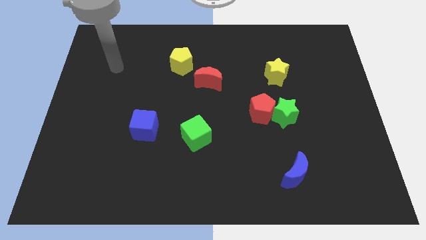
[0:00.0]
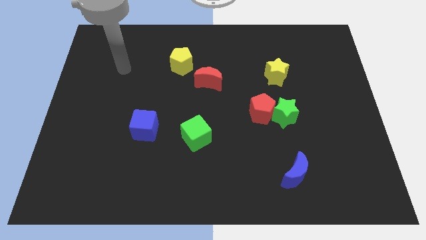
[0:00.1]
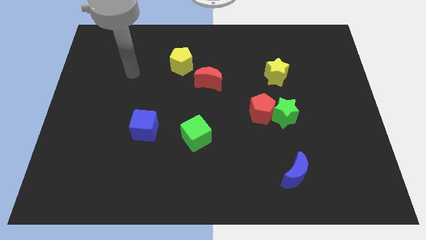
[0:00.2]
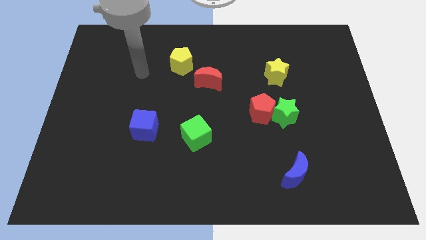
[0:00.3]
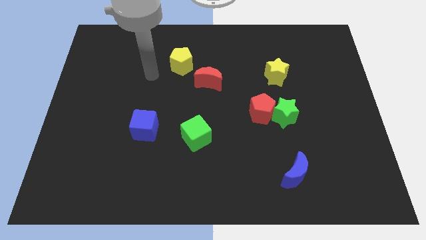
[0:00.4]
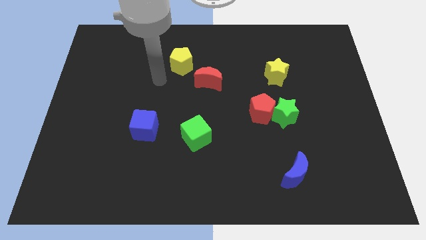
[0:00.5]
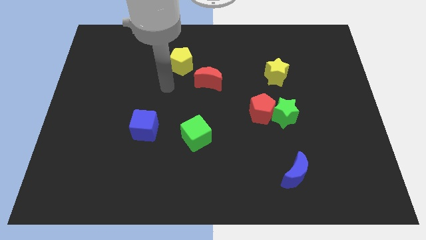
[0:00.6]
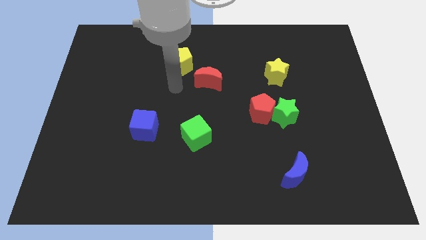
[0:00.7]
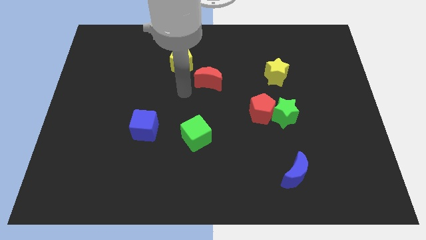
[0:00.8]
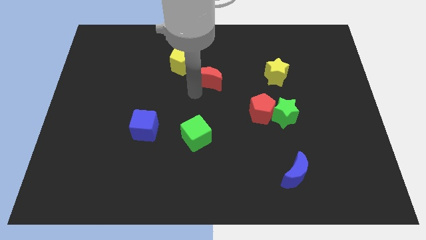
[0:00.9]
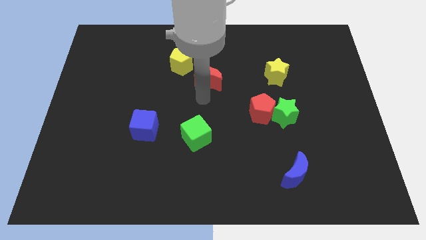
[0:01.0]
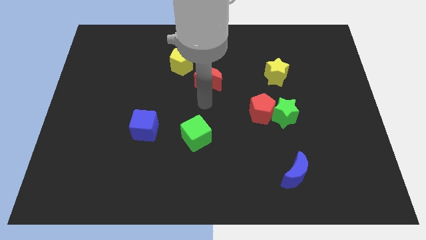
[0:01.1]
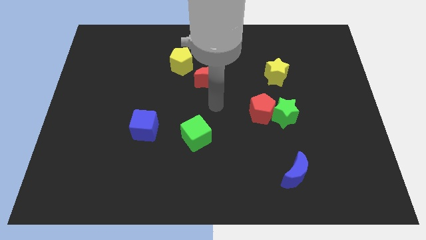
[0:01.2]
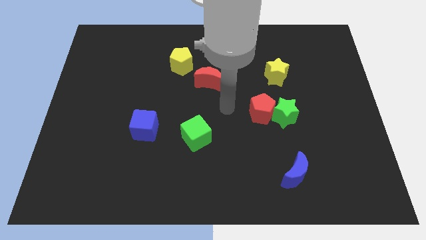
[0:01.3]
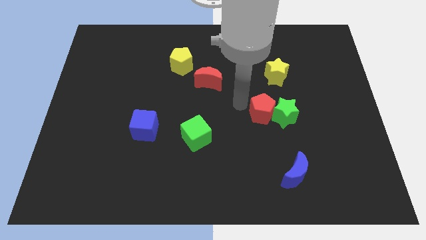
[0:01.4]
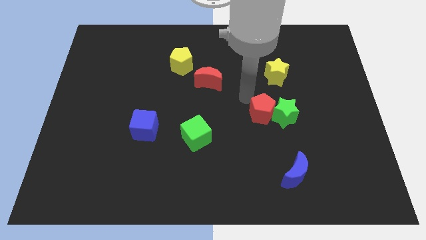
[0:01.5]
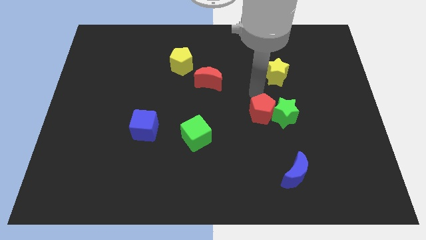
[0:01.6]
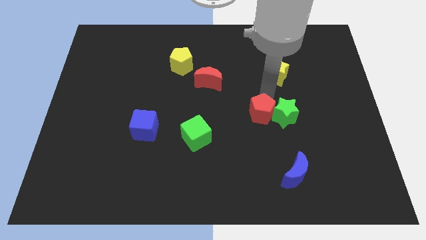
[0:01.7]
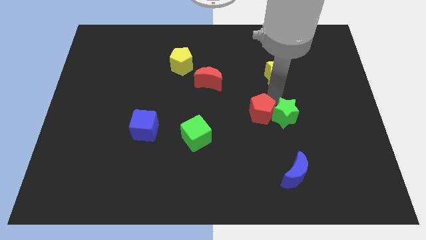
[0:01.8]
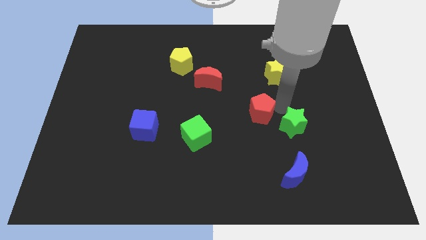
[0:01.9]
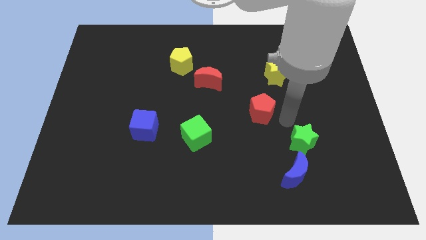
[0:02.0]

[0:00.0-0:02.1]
pull the red pentagon apart from the green star

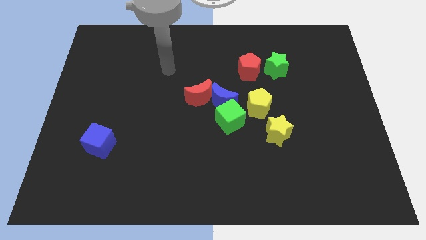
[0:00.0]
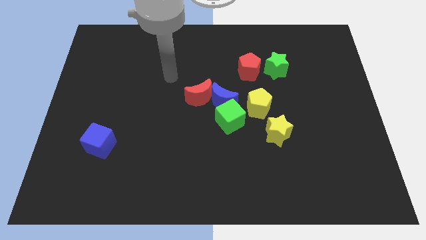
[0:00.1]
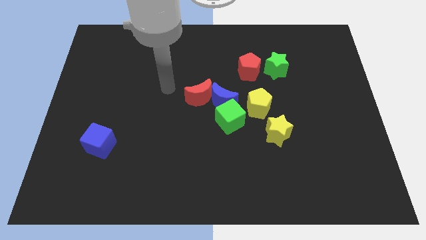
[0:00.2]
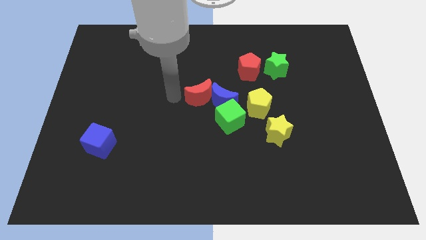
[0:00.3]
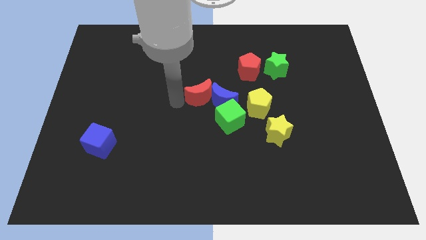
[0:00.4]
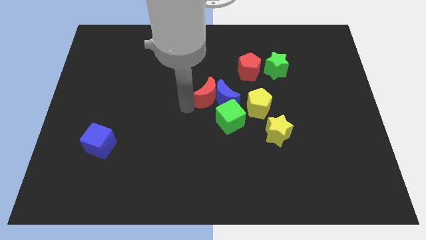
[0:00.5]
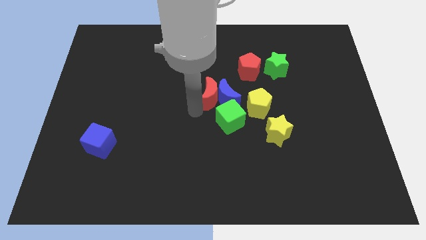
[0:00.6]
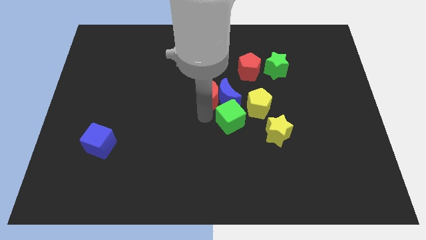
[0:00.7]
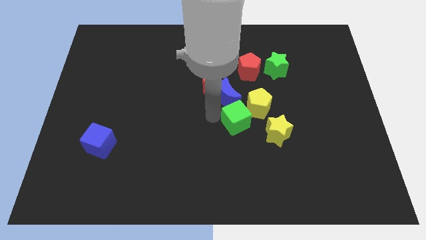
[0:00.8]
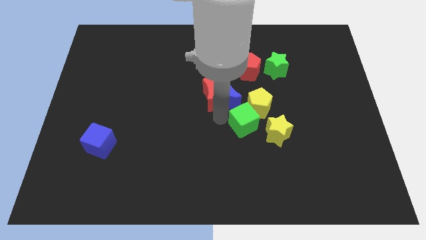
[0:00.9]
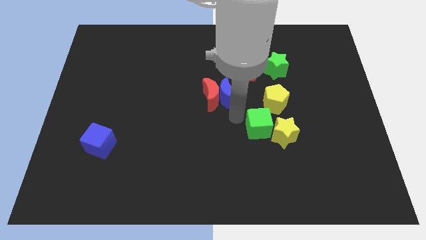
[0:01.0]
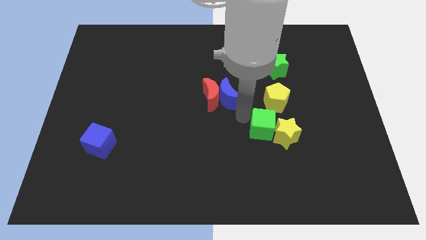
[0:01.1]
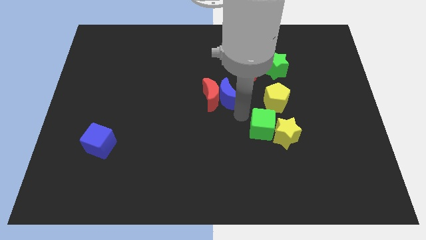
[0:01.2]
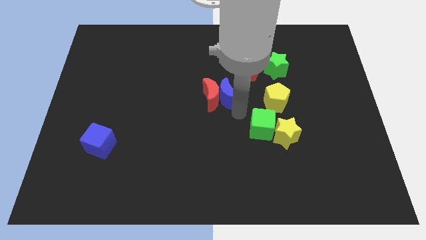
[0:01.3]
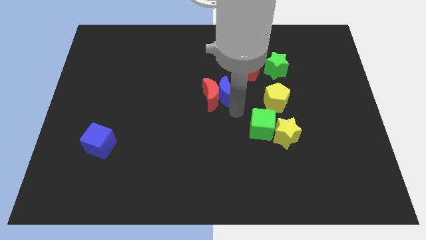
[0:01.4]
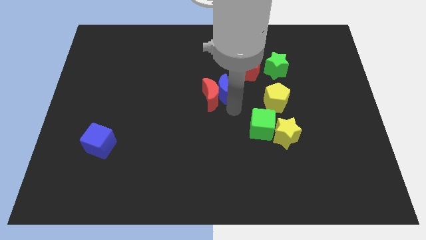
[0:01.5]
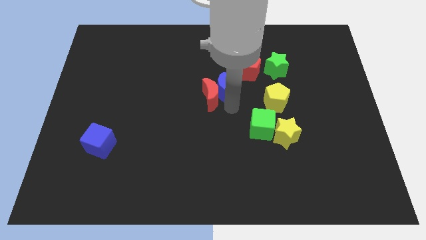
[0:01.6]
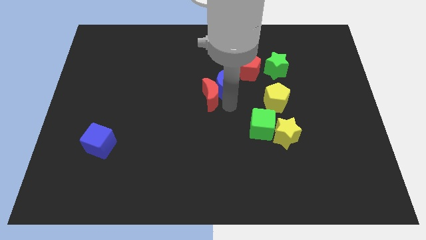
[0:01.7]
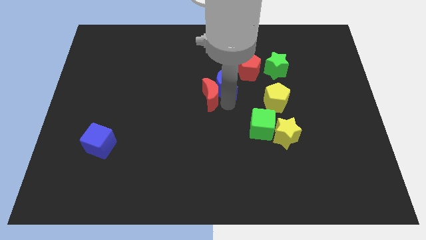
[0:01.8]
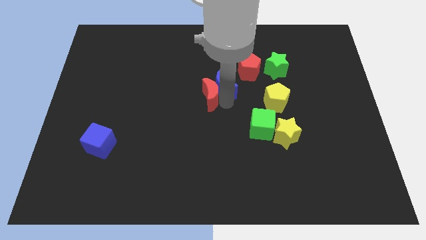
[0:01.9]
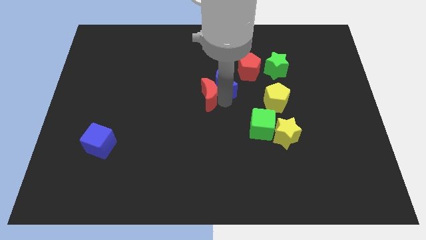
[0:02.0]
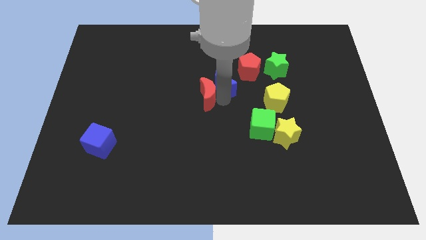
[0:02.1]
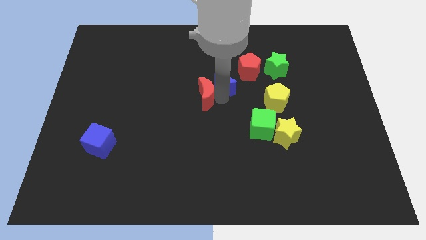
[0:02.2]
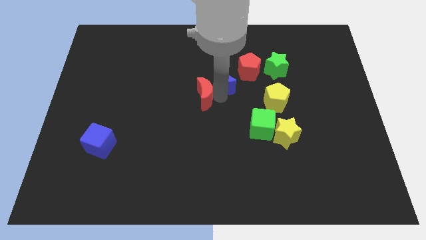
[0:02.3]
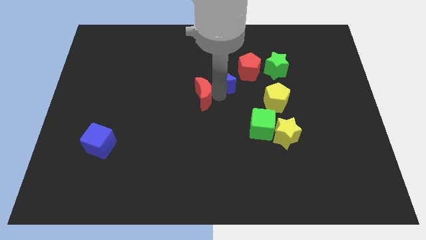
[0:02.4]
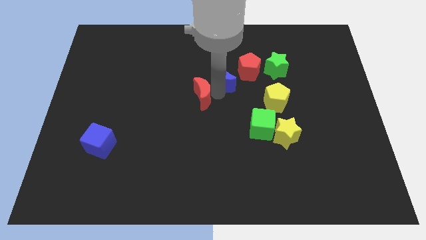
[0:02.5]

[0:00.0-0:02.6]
pull the blue moon apart from the red moon, green cube, and yellow pentagon

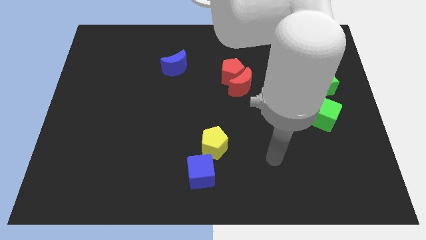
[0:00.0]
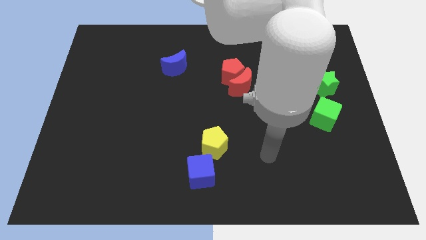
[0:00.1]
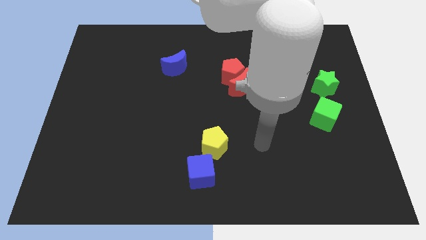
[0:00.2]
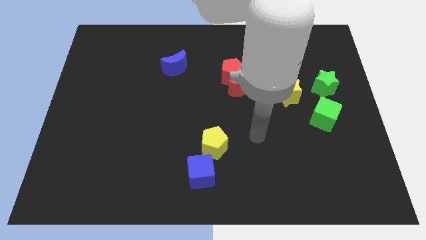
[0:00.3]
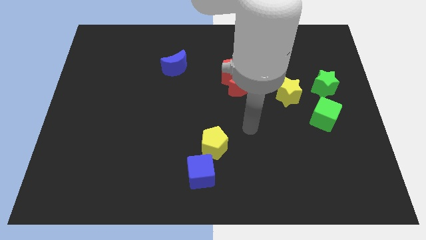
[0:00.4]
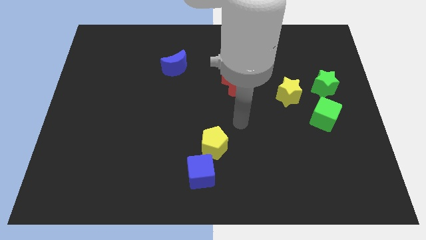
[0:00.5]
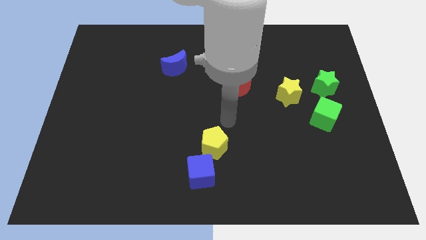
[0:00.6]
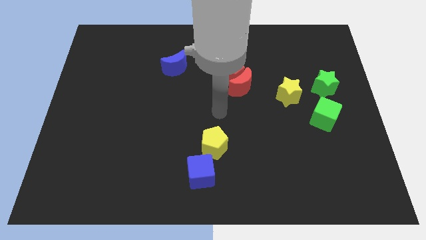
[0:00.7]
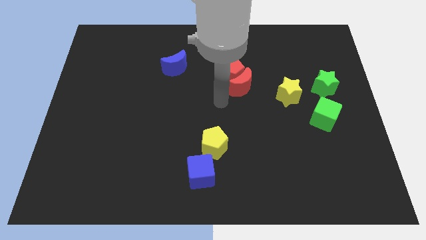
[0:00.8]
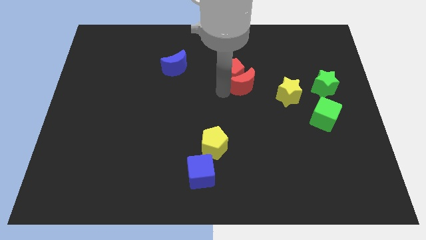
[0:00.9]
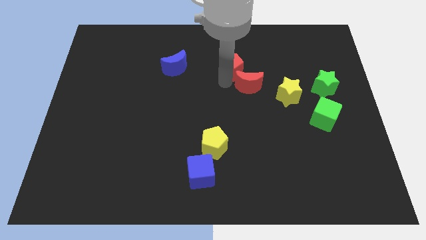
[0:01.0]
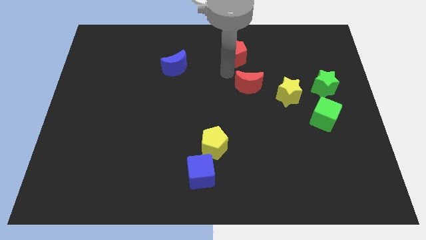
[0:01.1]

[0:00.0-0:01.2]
separate the red moon from the red pentagon

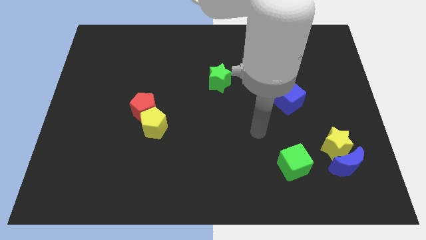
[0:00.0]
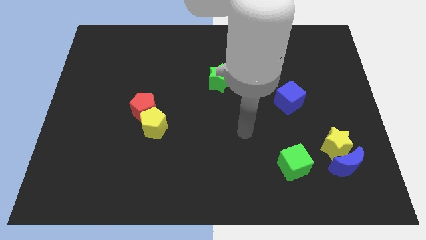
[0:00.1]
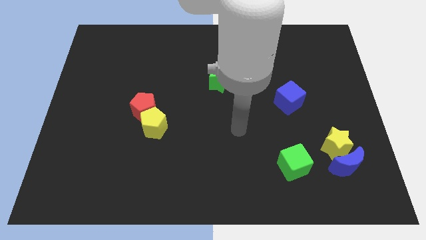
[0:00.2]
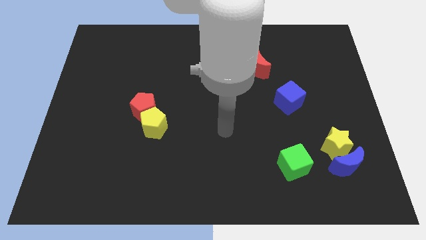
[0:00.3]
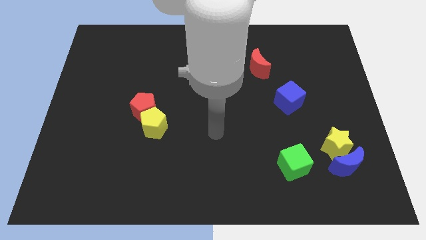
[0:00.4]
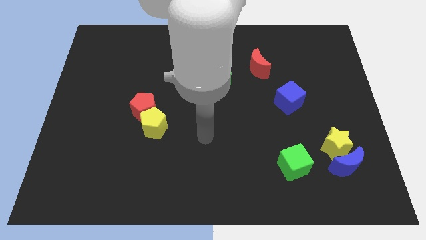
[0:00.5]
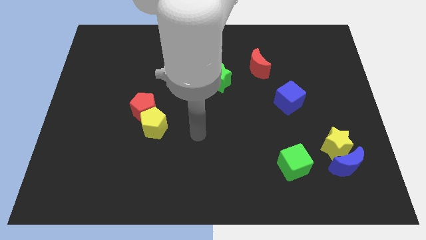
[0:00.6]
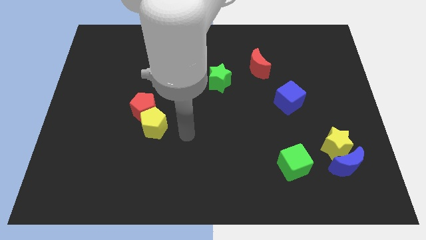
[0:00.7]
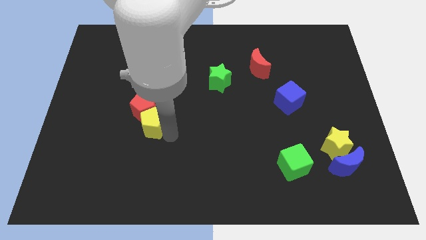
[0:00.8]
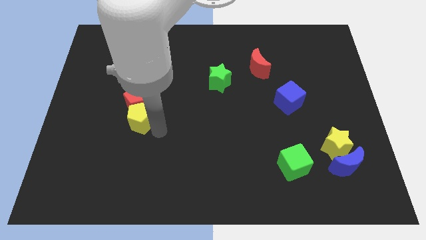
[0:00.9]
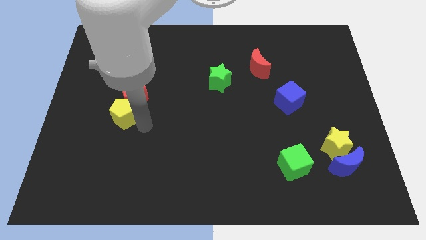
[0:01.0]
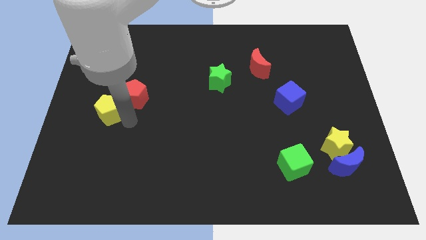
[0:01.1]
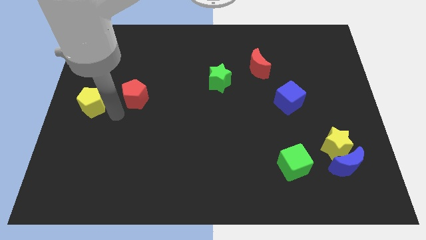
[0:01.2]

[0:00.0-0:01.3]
move the red pentagon away from the yellow pentagon

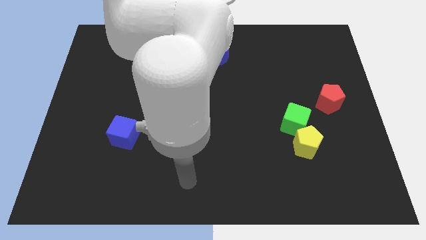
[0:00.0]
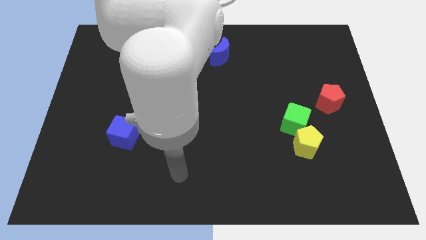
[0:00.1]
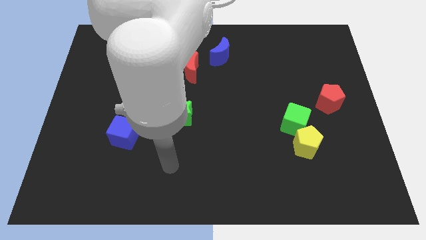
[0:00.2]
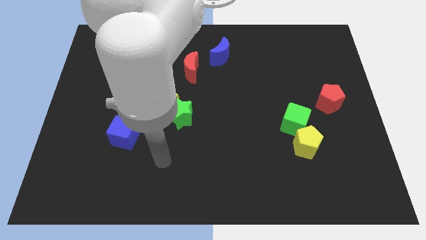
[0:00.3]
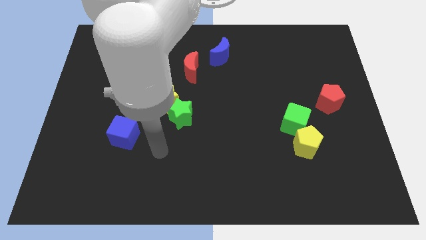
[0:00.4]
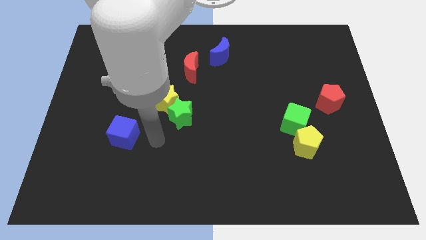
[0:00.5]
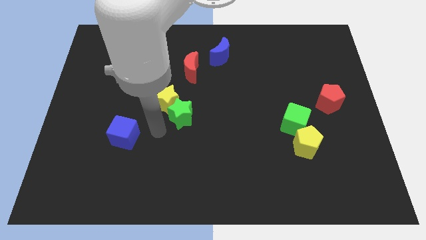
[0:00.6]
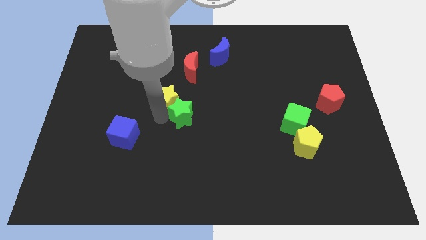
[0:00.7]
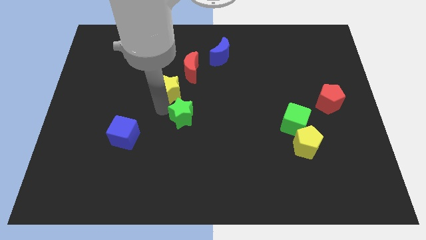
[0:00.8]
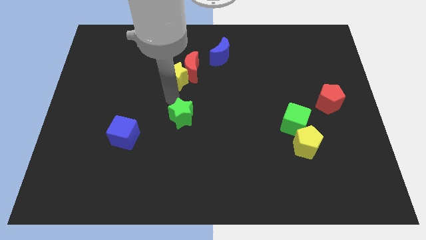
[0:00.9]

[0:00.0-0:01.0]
move the green star away from the yellow star

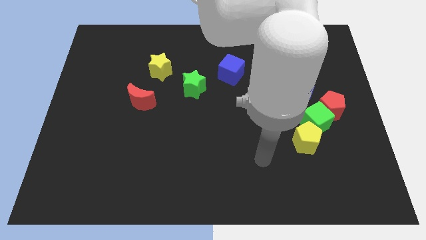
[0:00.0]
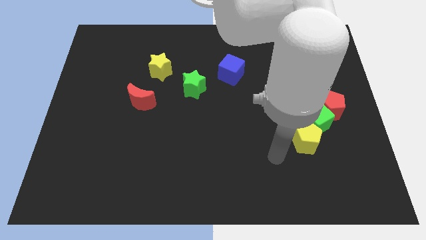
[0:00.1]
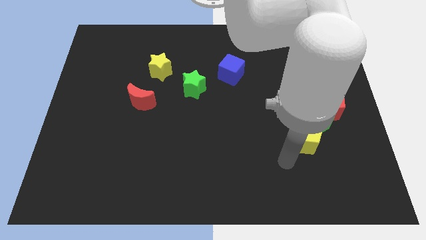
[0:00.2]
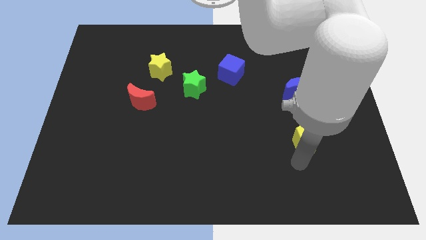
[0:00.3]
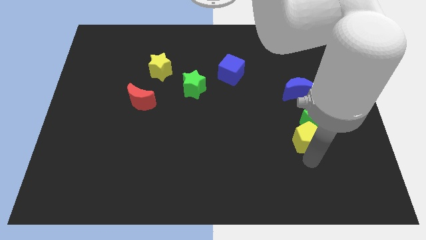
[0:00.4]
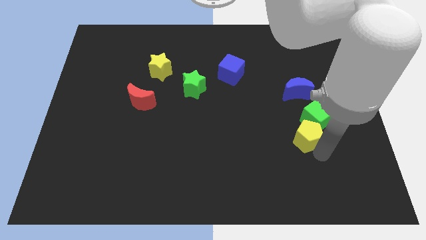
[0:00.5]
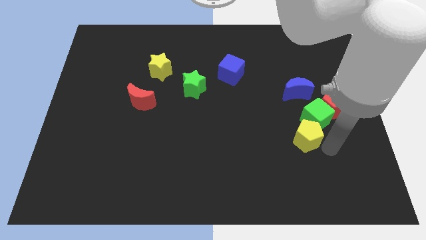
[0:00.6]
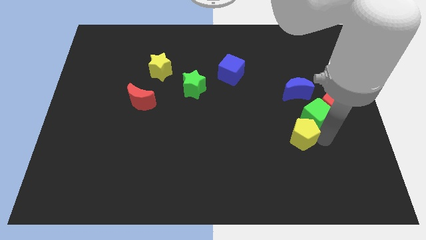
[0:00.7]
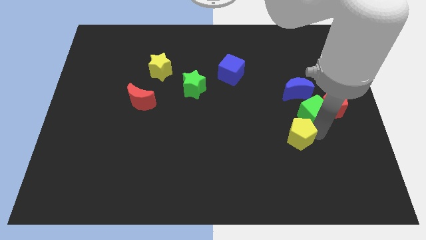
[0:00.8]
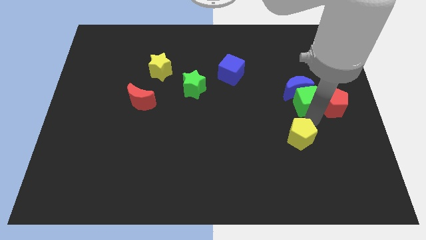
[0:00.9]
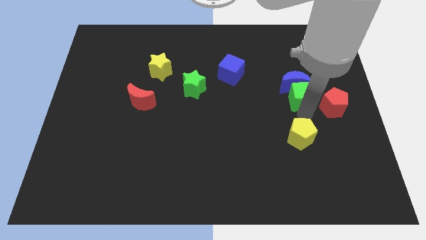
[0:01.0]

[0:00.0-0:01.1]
pull the yellow pentagon apart from the green cube

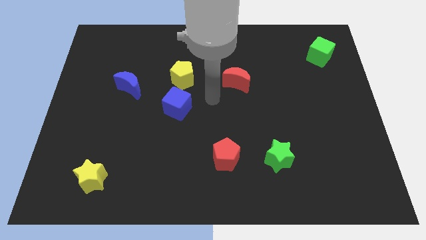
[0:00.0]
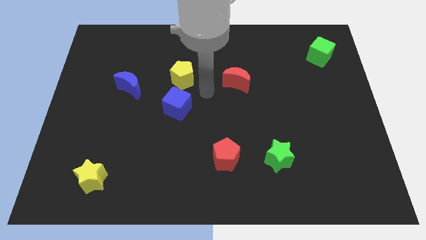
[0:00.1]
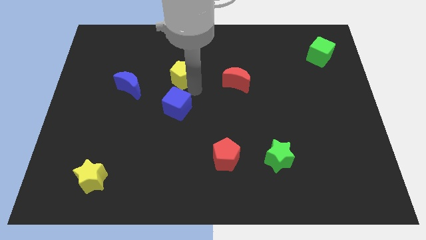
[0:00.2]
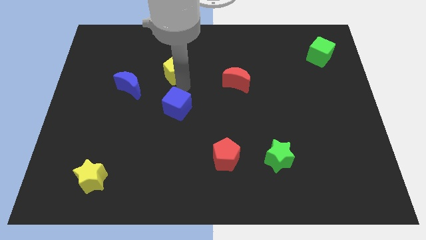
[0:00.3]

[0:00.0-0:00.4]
separate the blue cube from the yellow pentagon
